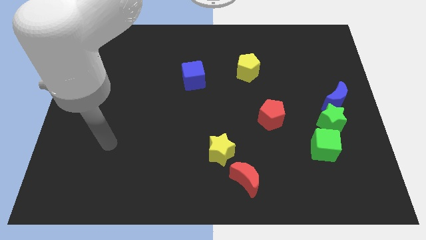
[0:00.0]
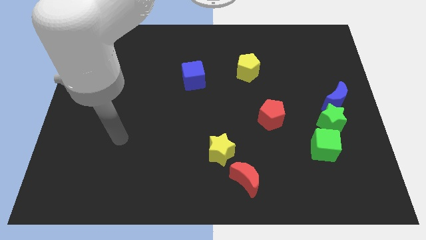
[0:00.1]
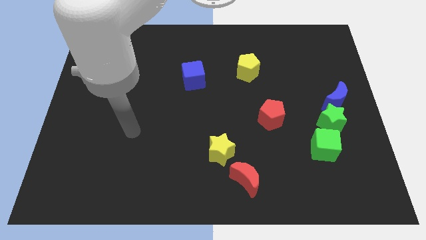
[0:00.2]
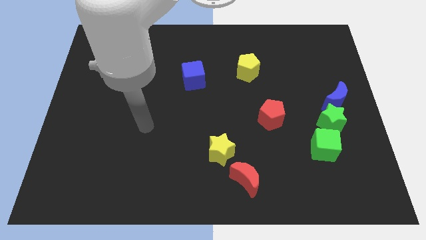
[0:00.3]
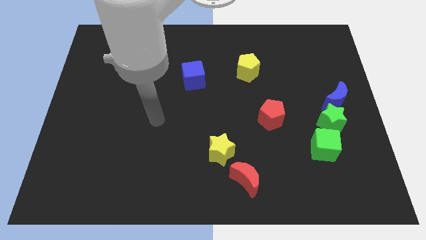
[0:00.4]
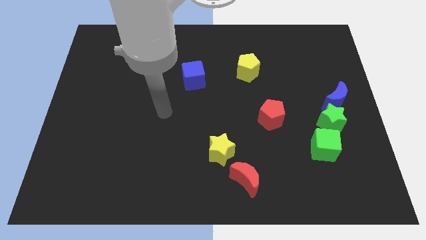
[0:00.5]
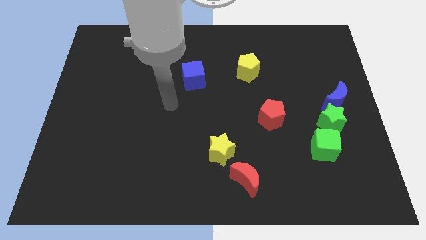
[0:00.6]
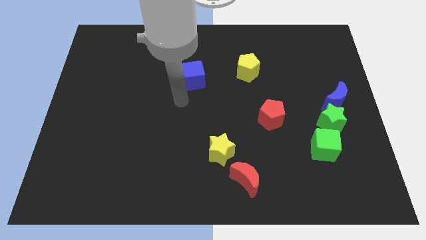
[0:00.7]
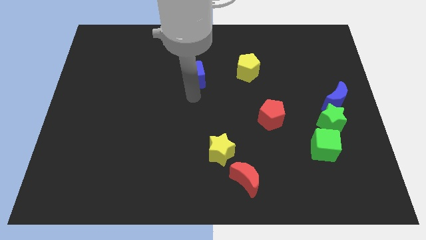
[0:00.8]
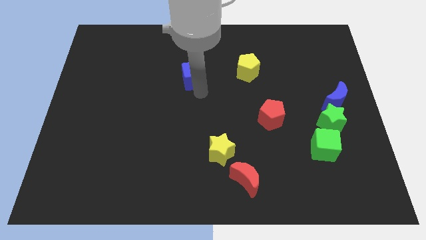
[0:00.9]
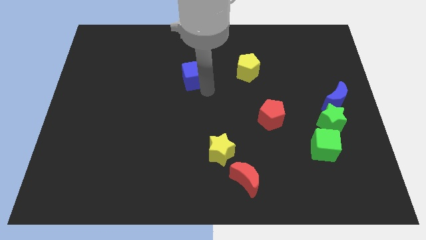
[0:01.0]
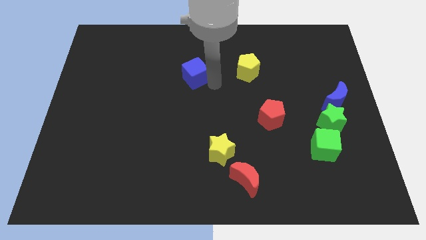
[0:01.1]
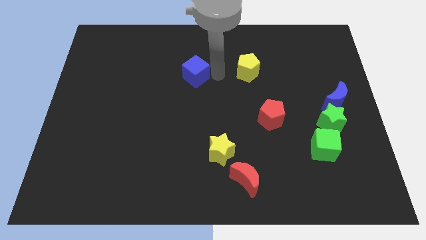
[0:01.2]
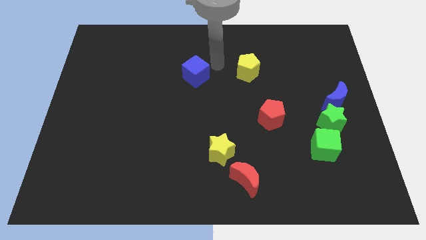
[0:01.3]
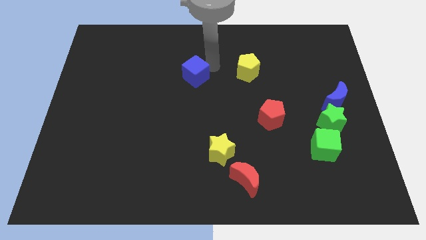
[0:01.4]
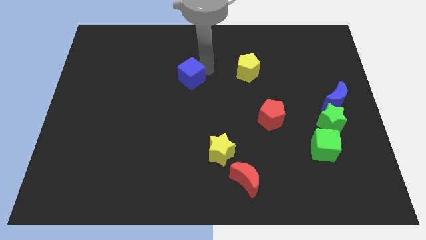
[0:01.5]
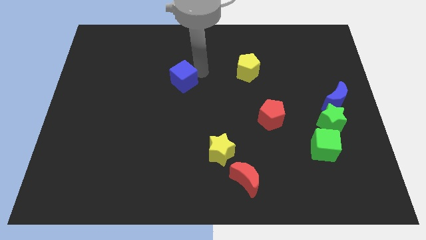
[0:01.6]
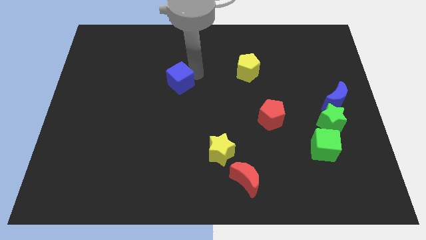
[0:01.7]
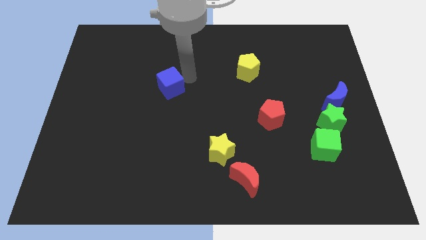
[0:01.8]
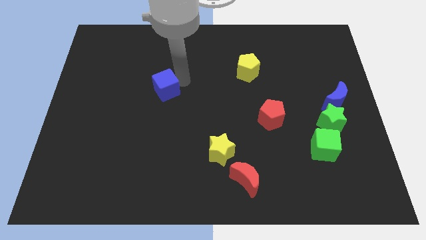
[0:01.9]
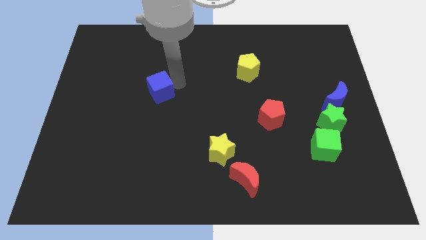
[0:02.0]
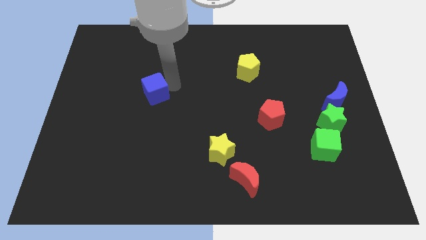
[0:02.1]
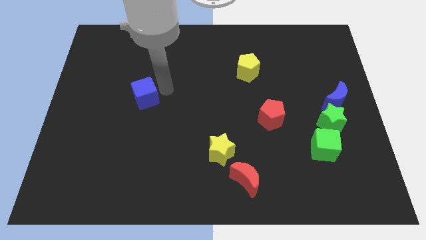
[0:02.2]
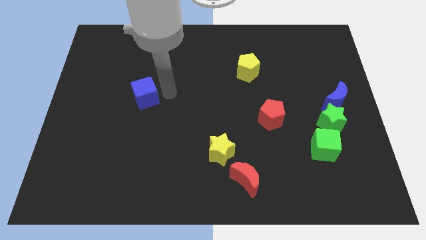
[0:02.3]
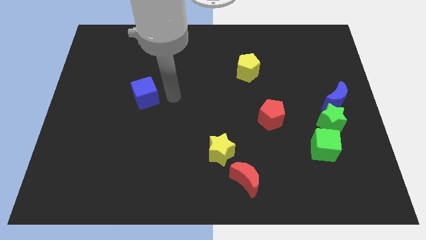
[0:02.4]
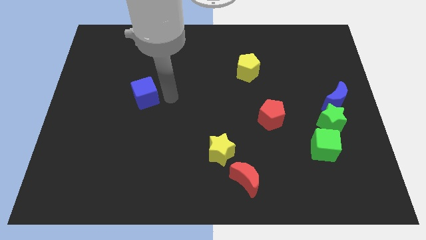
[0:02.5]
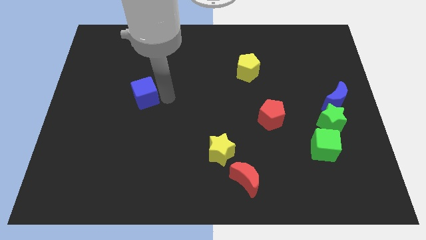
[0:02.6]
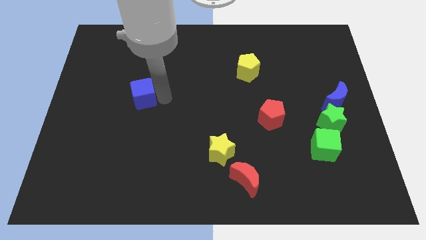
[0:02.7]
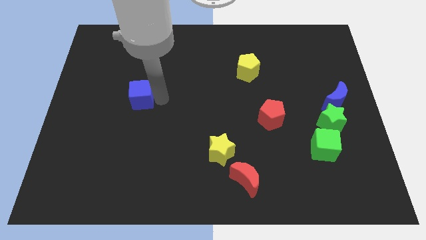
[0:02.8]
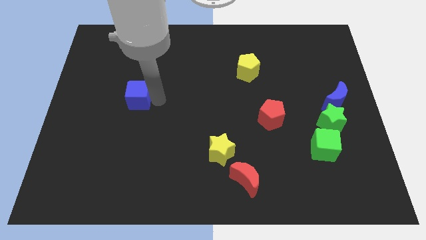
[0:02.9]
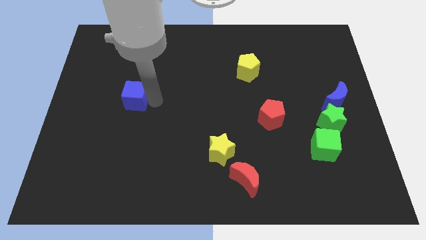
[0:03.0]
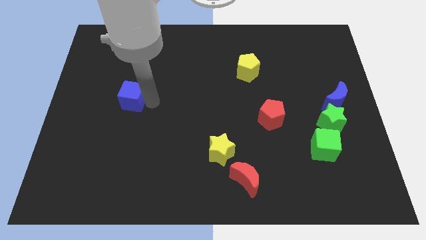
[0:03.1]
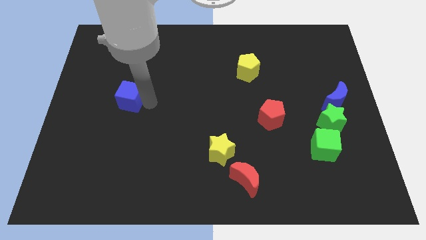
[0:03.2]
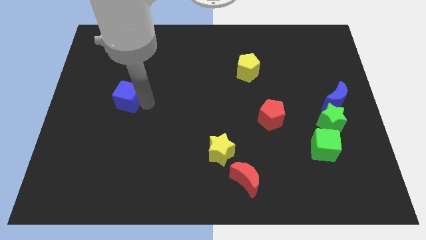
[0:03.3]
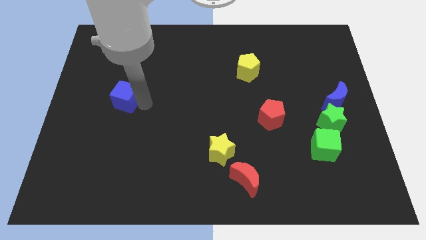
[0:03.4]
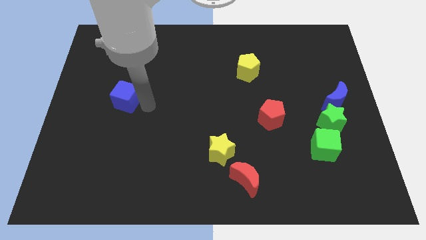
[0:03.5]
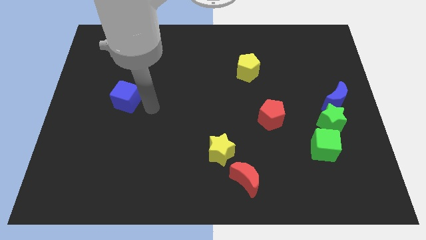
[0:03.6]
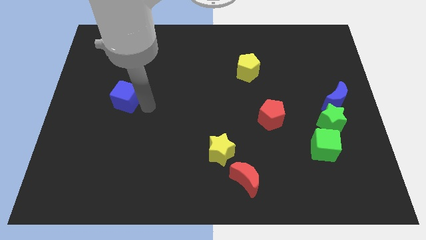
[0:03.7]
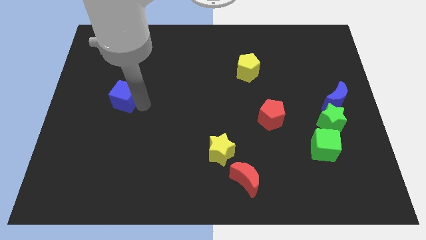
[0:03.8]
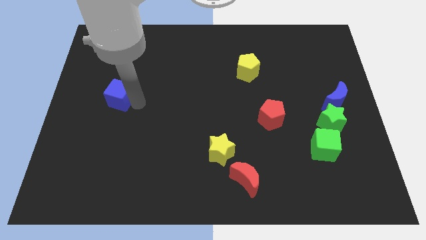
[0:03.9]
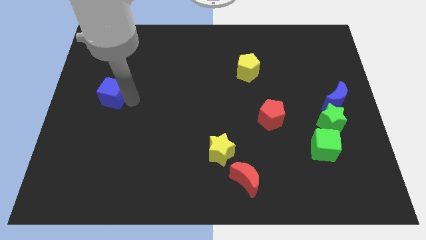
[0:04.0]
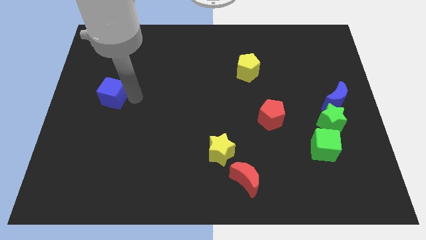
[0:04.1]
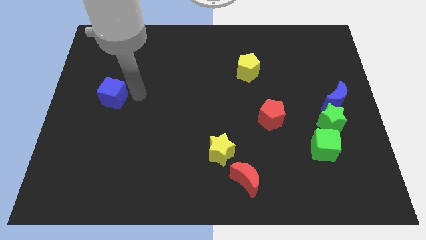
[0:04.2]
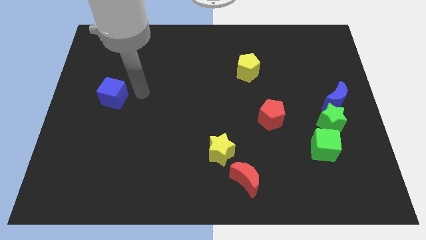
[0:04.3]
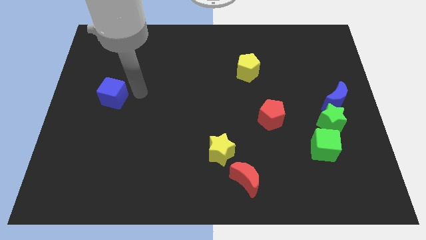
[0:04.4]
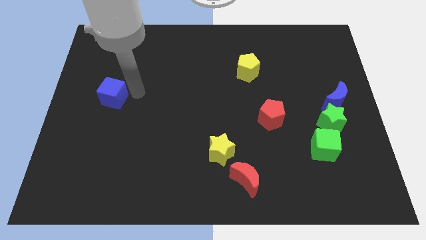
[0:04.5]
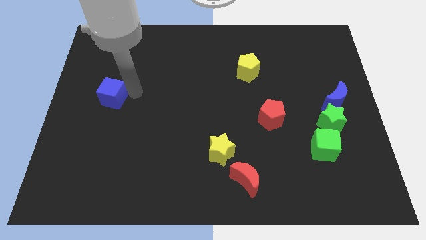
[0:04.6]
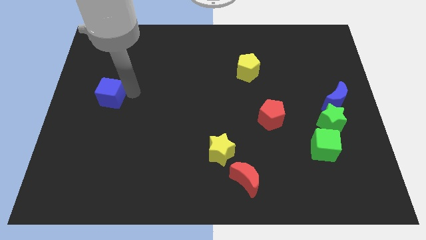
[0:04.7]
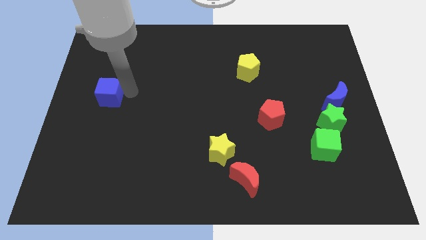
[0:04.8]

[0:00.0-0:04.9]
slide the blue cube to the left side of the board
